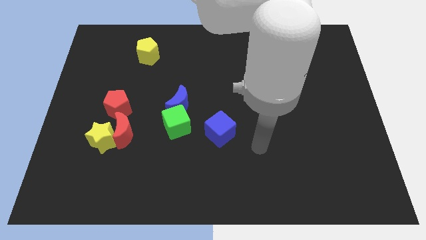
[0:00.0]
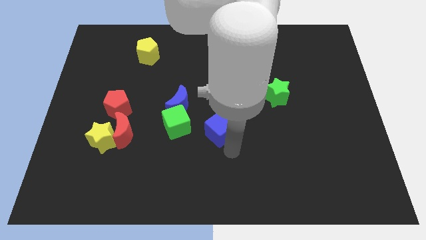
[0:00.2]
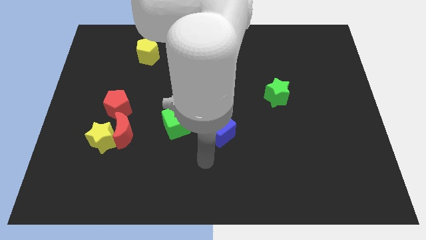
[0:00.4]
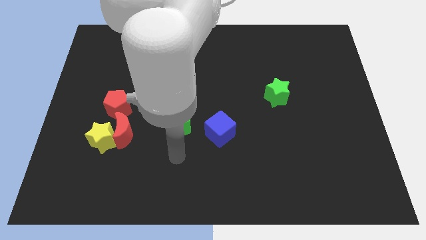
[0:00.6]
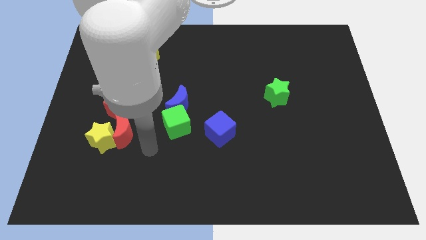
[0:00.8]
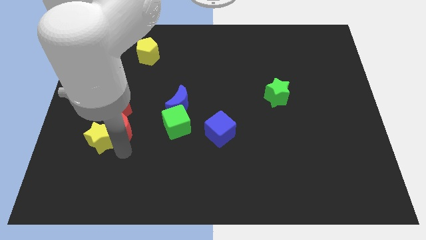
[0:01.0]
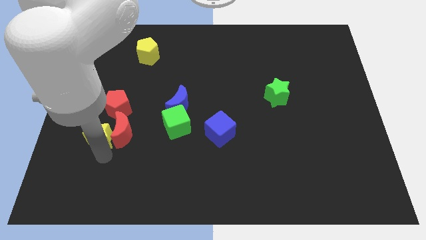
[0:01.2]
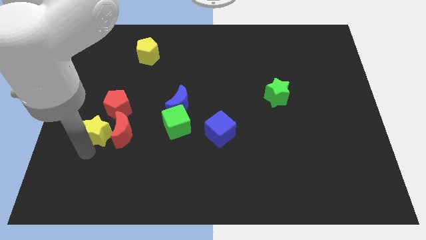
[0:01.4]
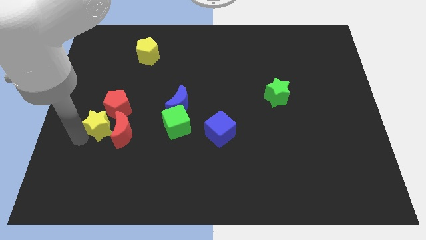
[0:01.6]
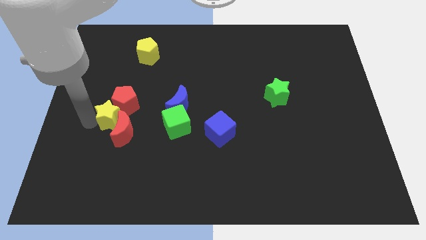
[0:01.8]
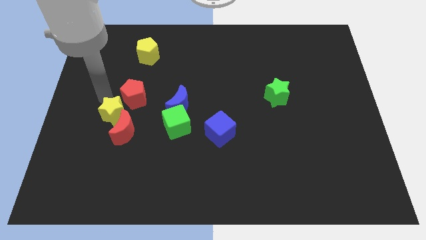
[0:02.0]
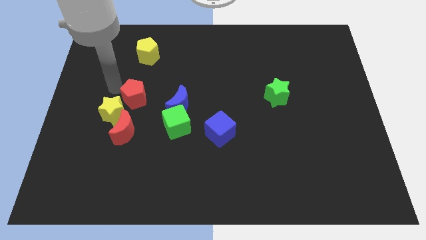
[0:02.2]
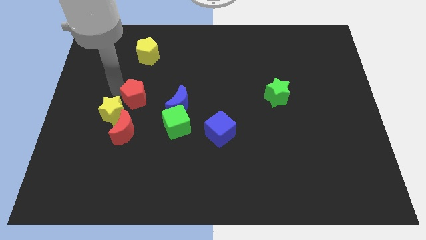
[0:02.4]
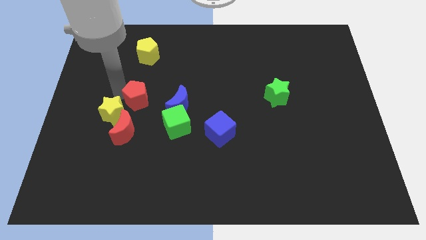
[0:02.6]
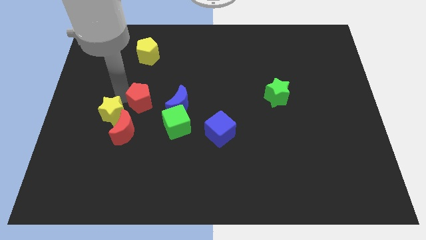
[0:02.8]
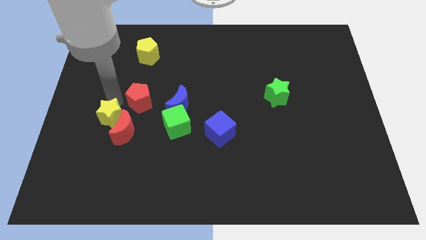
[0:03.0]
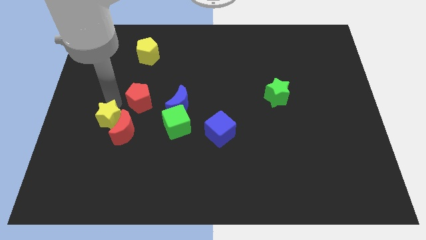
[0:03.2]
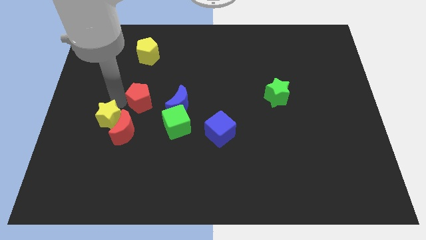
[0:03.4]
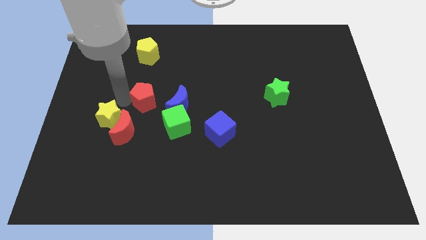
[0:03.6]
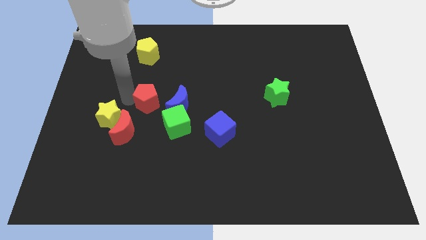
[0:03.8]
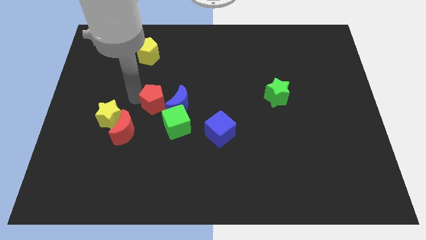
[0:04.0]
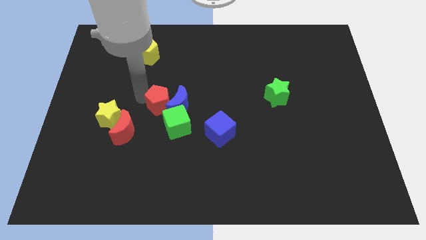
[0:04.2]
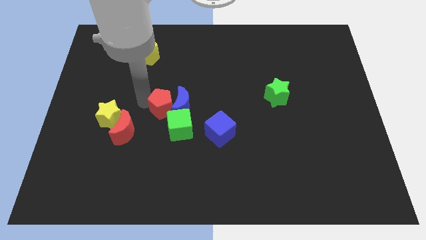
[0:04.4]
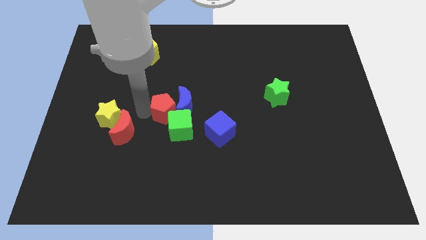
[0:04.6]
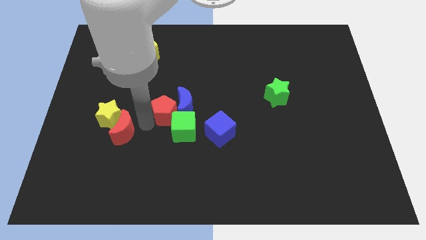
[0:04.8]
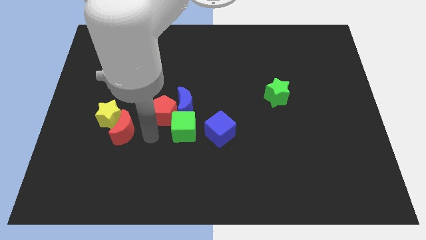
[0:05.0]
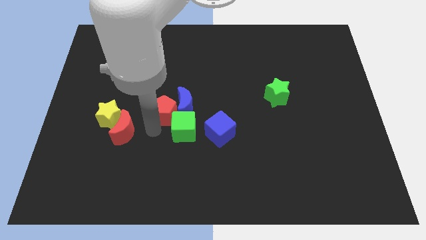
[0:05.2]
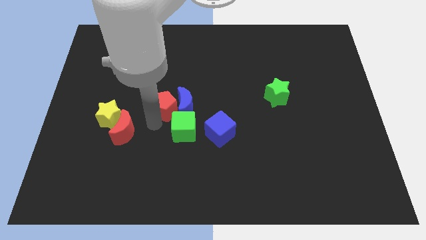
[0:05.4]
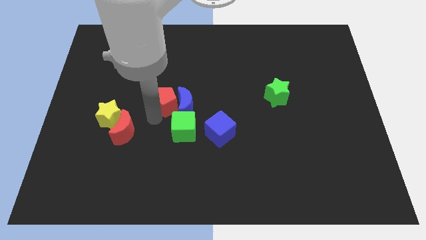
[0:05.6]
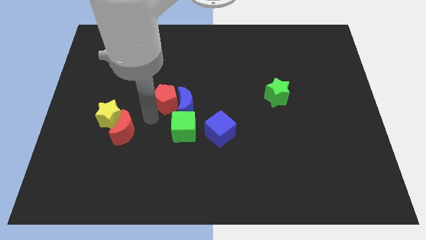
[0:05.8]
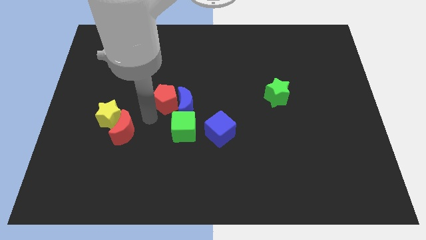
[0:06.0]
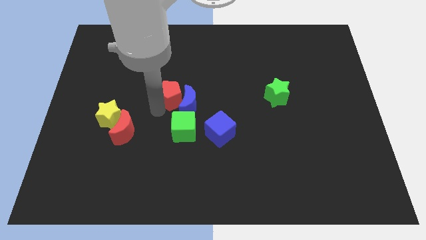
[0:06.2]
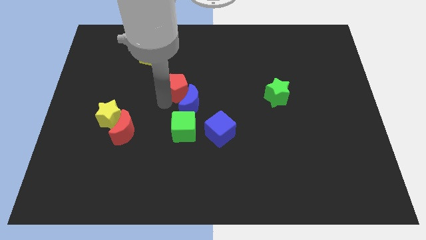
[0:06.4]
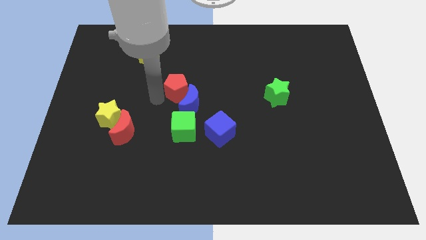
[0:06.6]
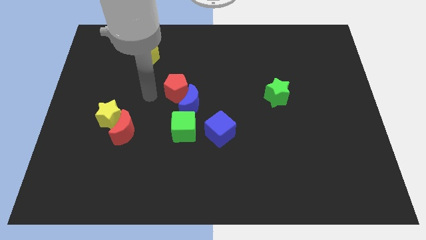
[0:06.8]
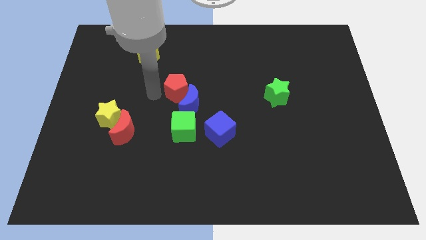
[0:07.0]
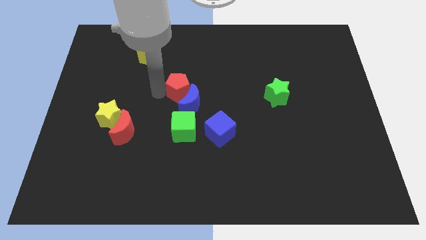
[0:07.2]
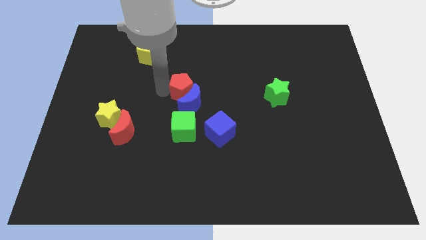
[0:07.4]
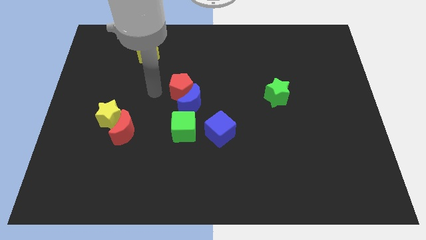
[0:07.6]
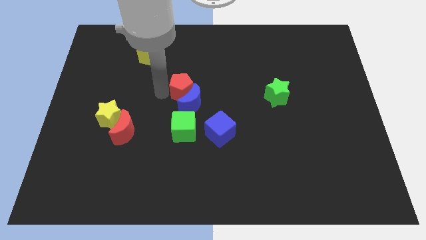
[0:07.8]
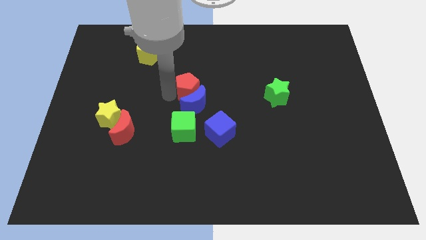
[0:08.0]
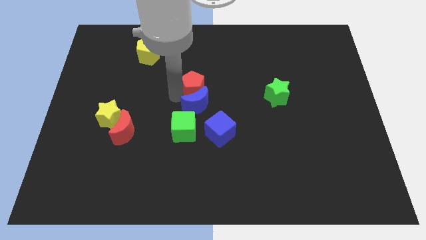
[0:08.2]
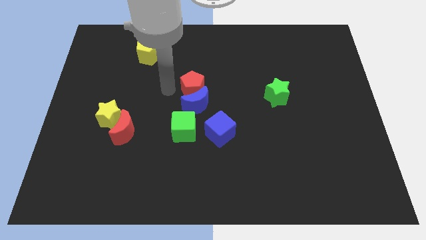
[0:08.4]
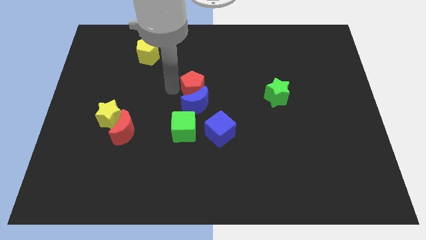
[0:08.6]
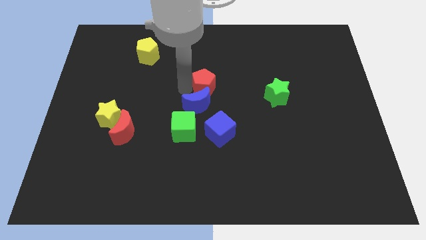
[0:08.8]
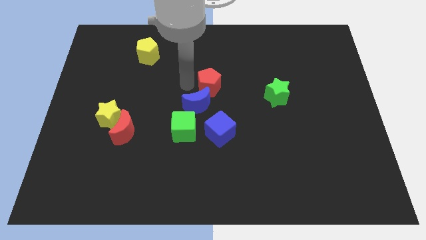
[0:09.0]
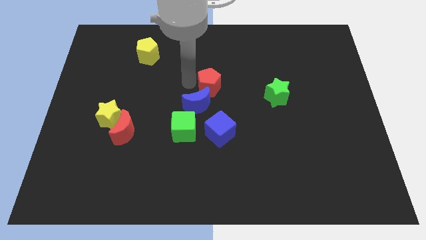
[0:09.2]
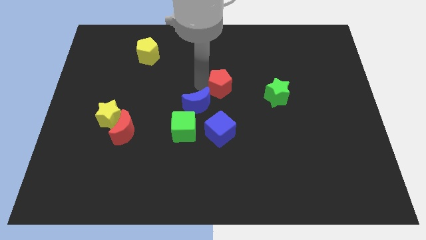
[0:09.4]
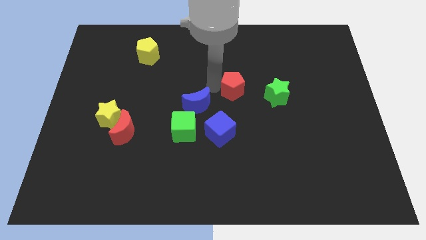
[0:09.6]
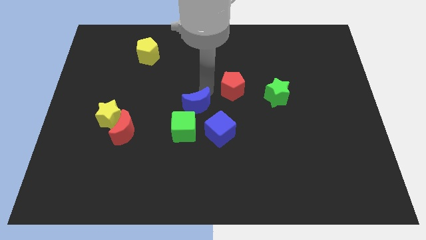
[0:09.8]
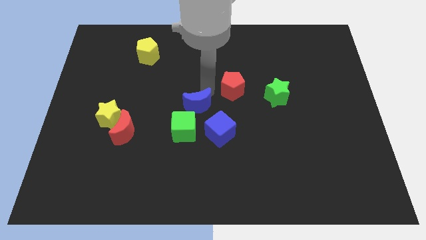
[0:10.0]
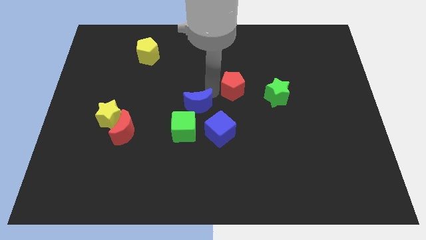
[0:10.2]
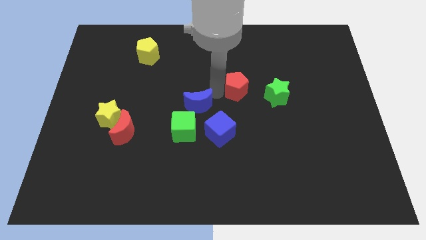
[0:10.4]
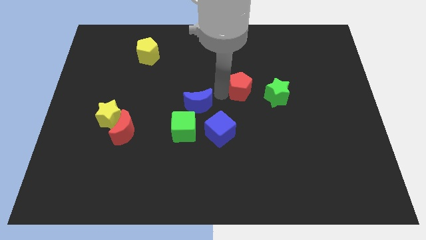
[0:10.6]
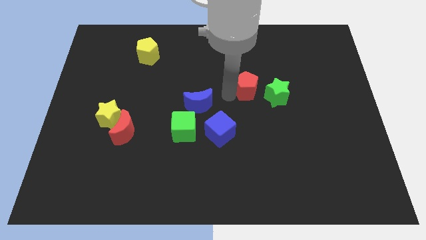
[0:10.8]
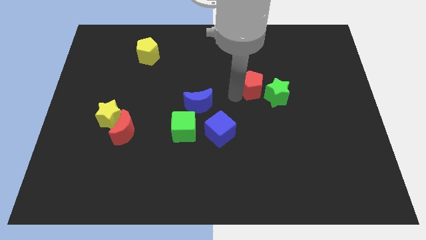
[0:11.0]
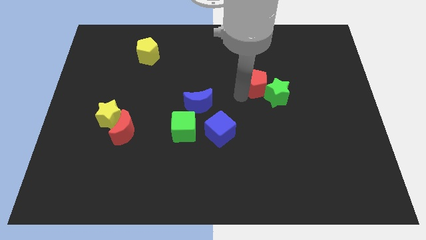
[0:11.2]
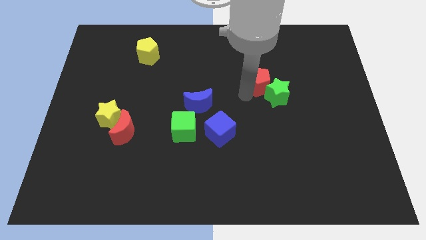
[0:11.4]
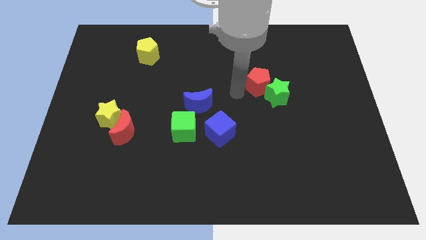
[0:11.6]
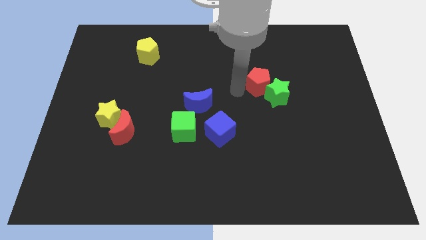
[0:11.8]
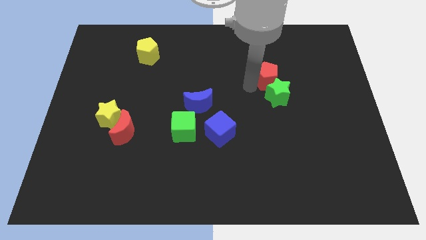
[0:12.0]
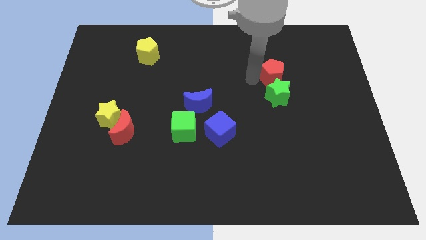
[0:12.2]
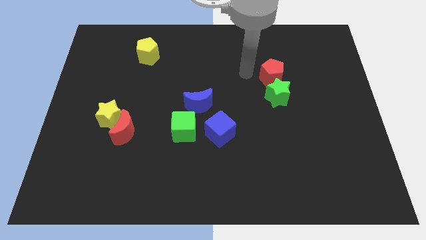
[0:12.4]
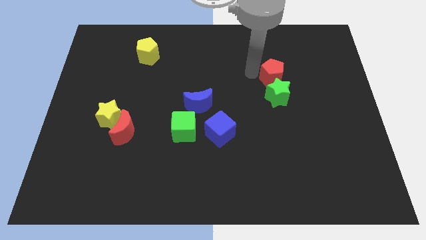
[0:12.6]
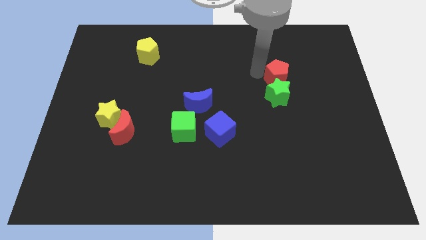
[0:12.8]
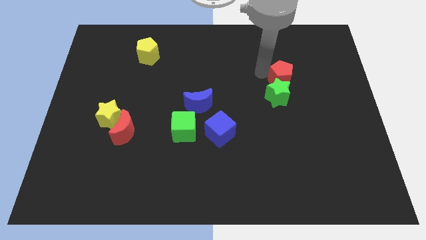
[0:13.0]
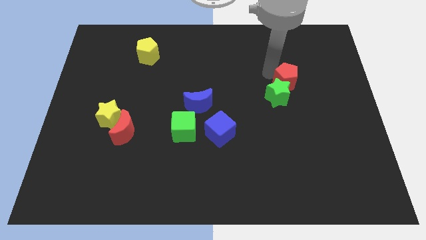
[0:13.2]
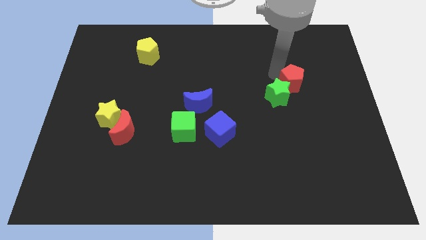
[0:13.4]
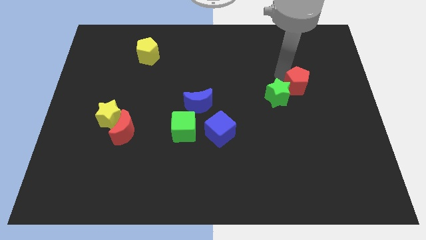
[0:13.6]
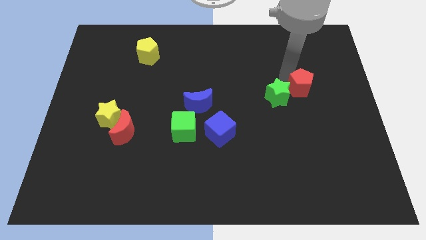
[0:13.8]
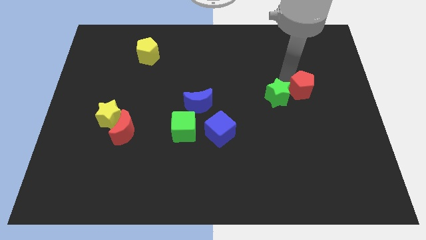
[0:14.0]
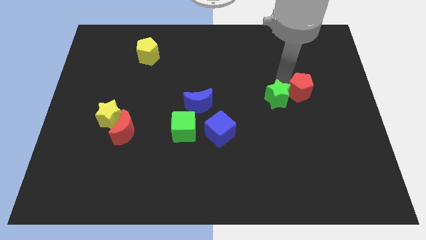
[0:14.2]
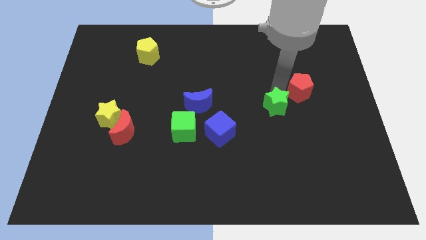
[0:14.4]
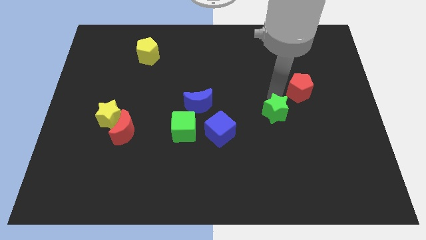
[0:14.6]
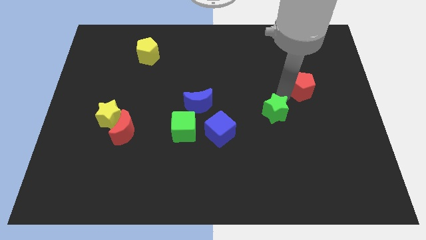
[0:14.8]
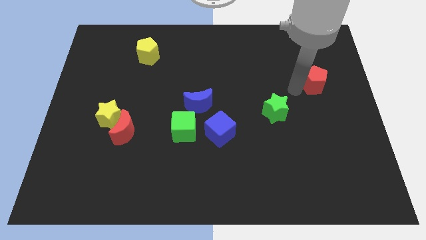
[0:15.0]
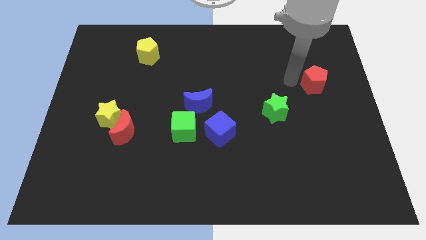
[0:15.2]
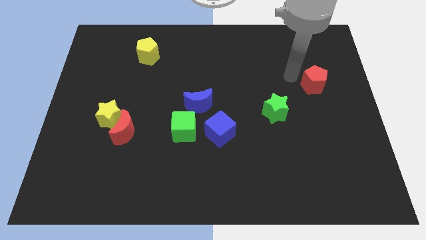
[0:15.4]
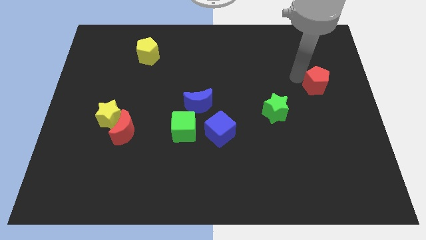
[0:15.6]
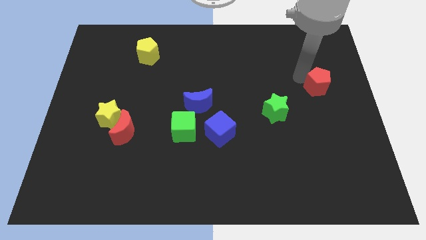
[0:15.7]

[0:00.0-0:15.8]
move the red pentagon to the right side of the board
